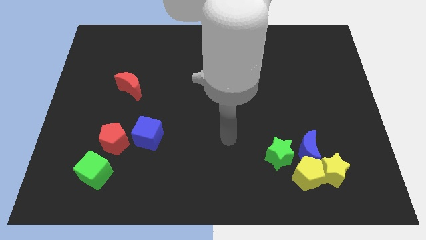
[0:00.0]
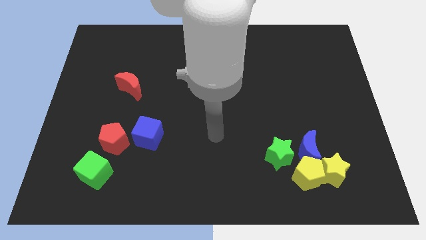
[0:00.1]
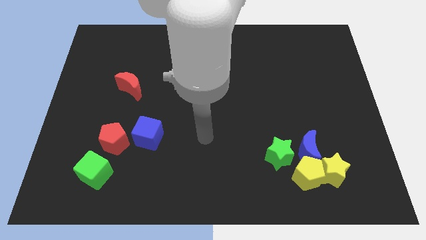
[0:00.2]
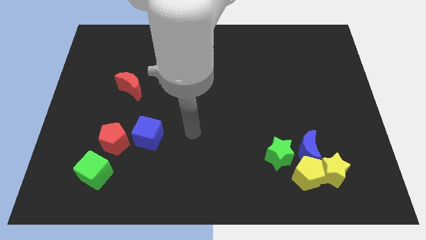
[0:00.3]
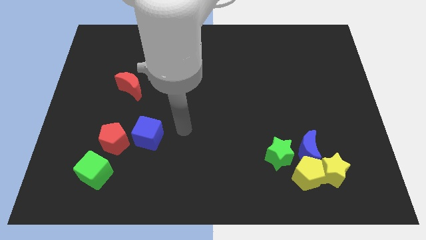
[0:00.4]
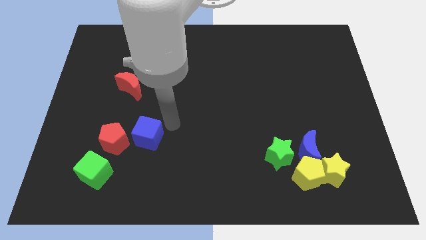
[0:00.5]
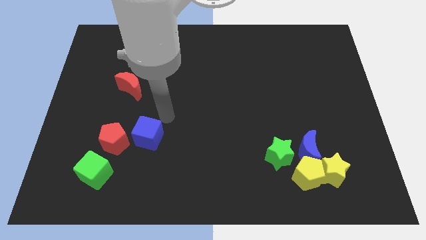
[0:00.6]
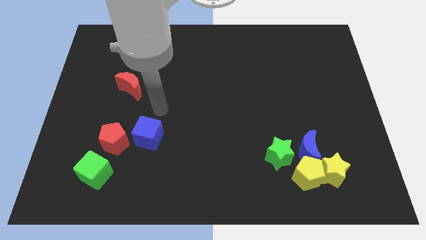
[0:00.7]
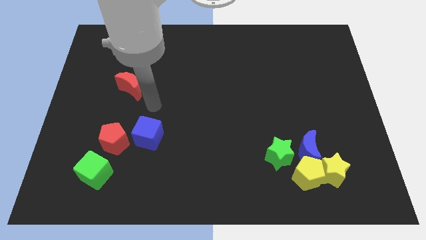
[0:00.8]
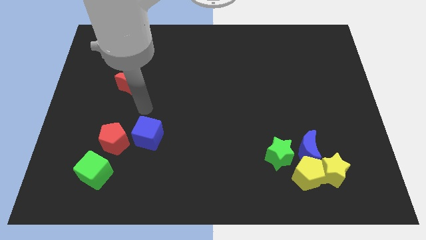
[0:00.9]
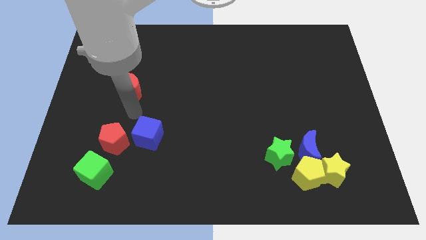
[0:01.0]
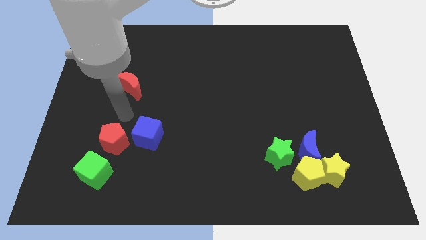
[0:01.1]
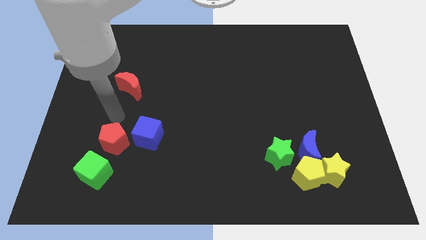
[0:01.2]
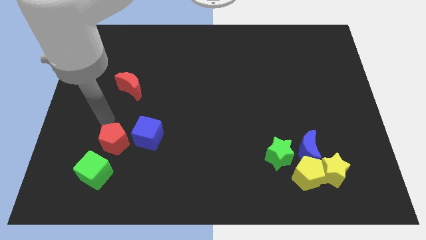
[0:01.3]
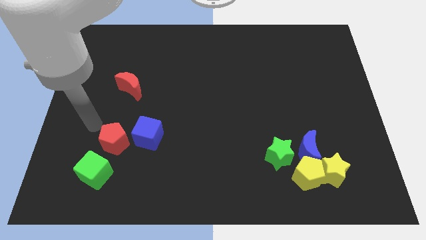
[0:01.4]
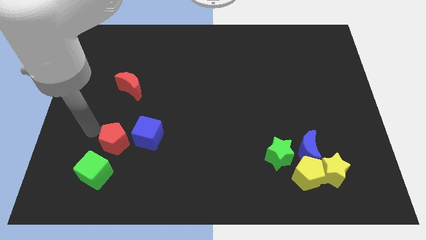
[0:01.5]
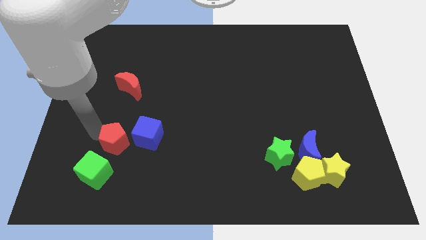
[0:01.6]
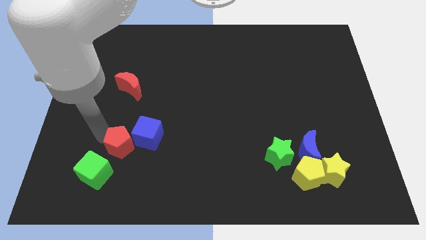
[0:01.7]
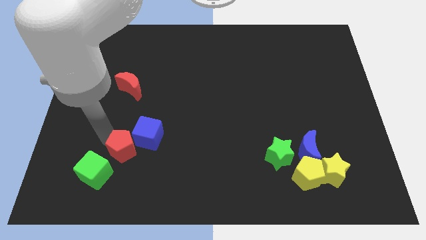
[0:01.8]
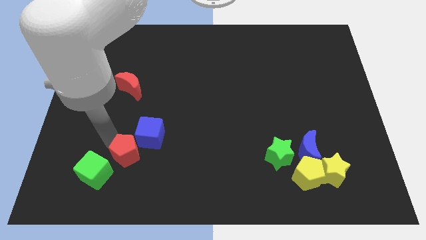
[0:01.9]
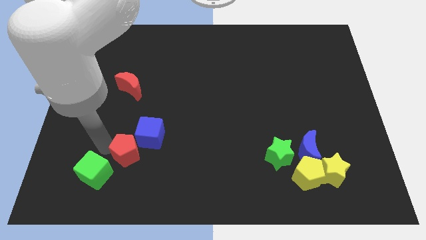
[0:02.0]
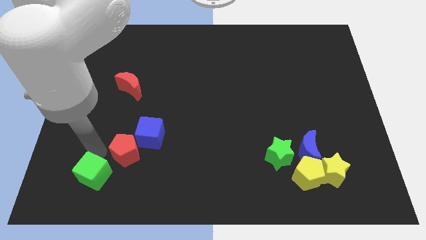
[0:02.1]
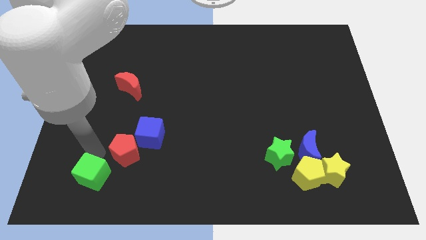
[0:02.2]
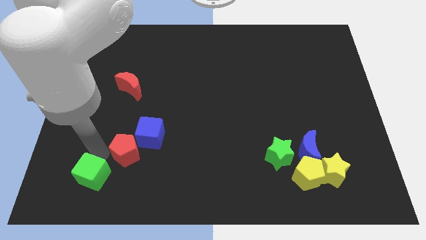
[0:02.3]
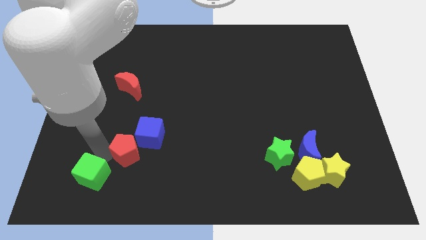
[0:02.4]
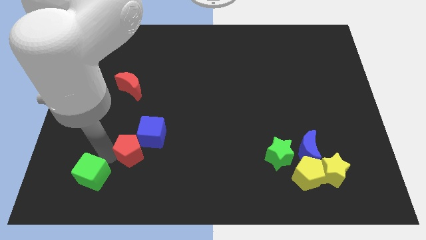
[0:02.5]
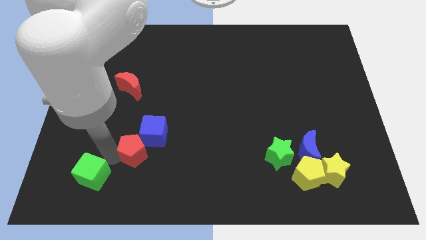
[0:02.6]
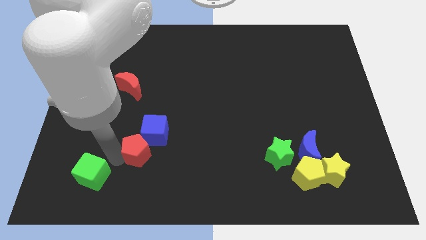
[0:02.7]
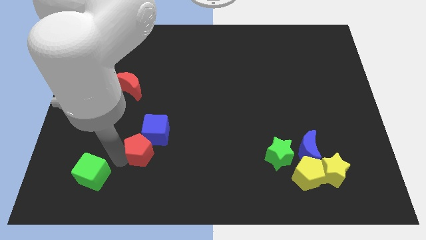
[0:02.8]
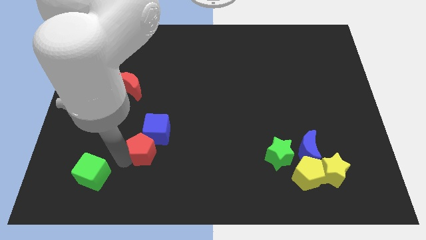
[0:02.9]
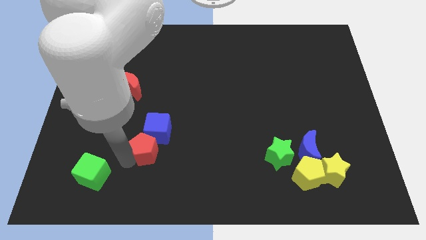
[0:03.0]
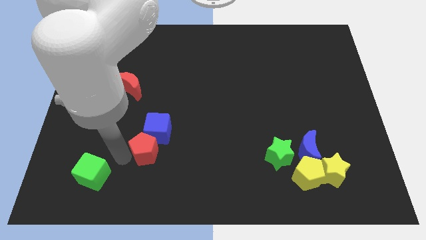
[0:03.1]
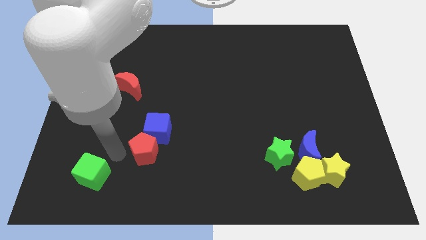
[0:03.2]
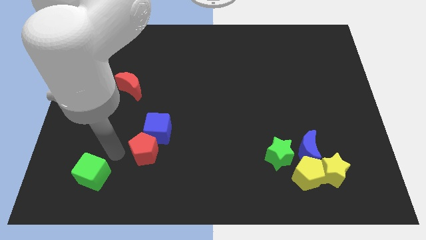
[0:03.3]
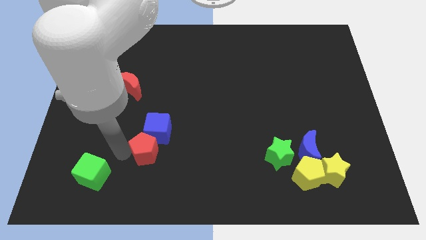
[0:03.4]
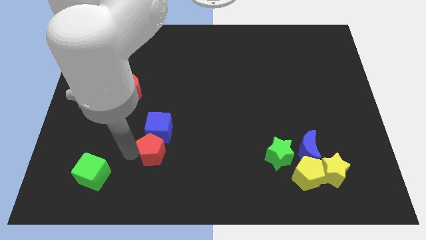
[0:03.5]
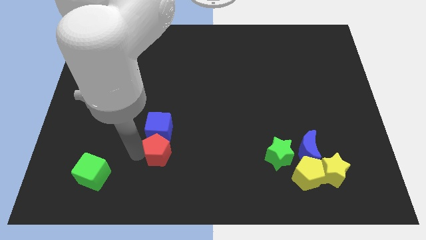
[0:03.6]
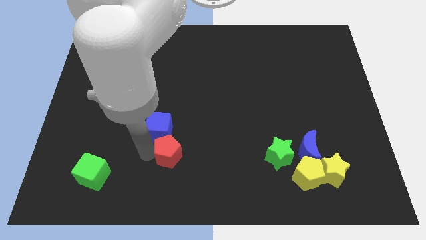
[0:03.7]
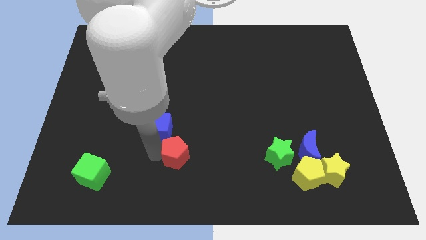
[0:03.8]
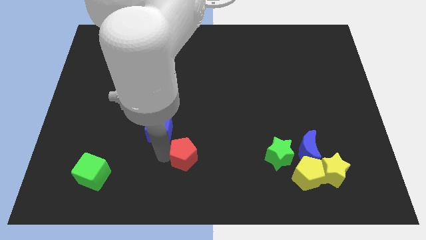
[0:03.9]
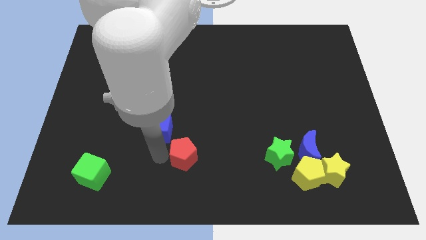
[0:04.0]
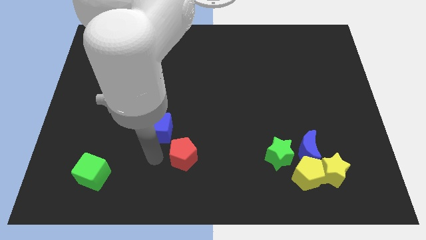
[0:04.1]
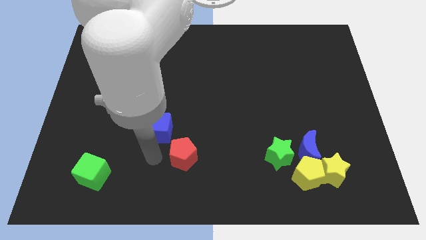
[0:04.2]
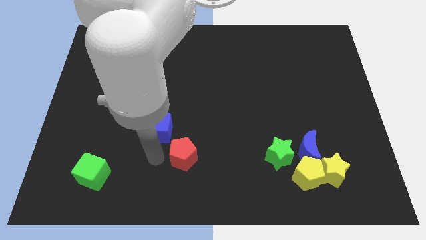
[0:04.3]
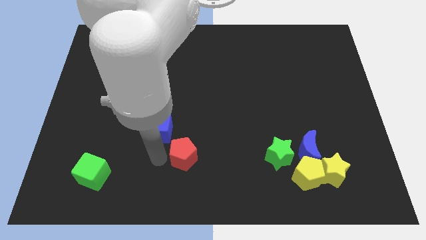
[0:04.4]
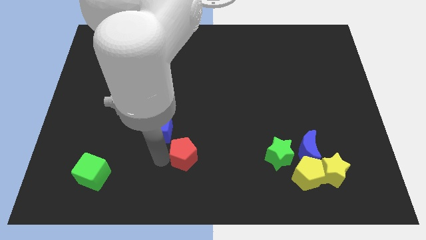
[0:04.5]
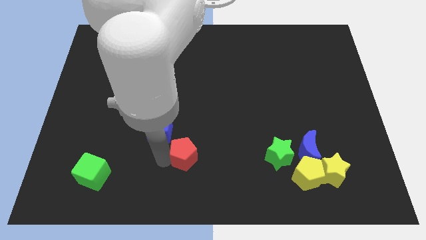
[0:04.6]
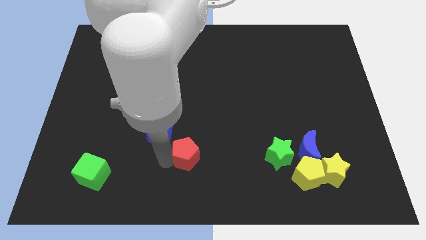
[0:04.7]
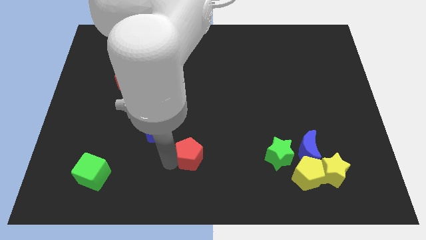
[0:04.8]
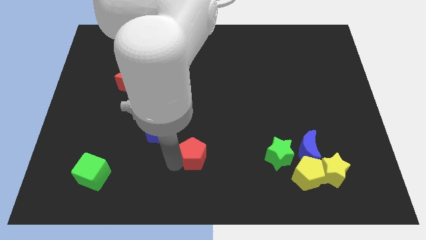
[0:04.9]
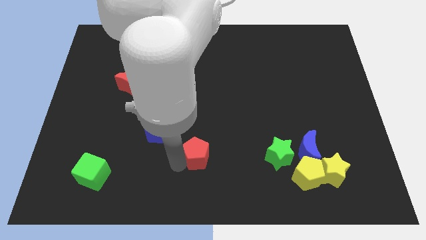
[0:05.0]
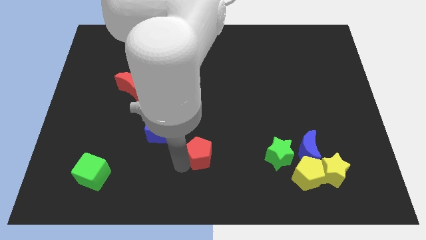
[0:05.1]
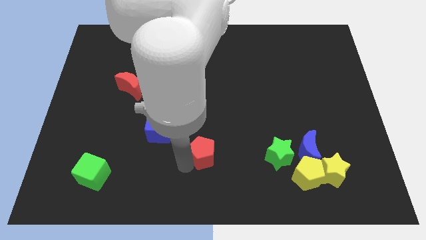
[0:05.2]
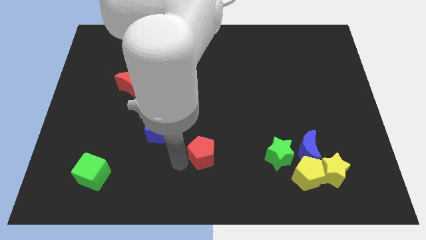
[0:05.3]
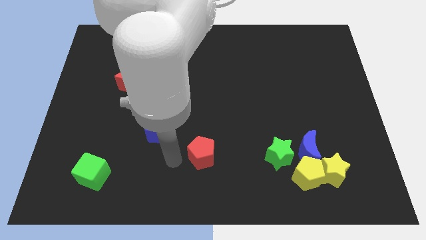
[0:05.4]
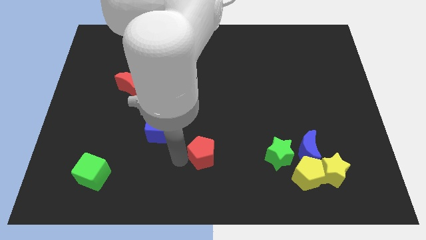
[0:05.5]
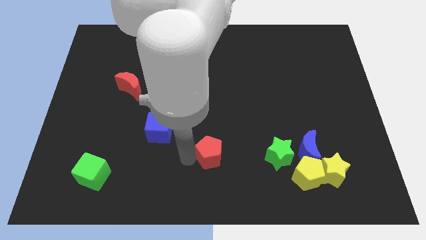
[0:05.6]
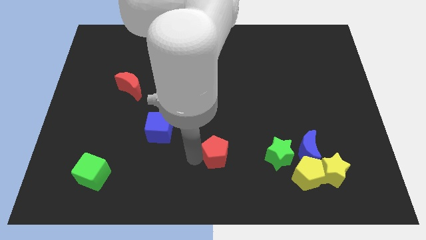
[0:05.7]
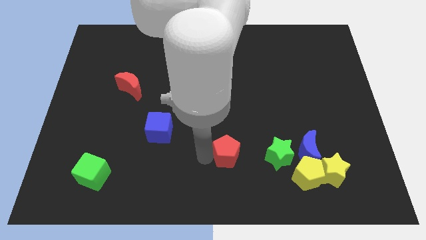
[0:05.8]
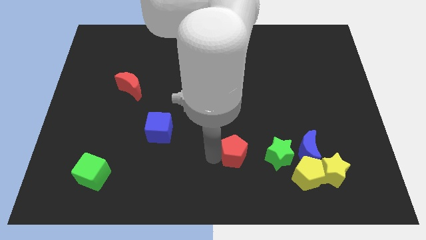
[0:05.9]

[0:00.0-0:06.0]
slide the red pentagon left of the blue moon

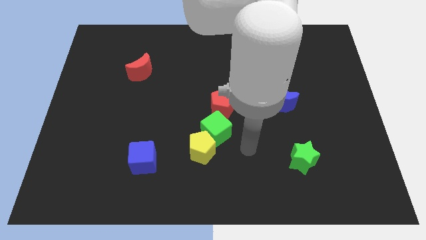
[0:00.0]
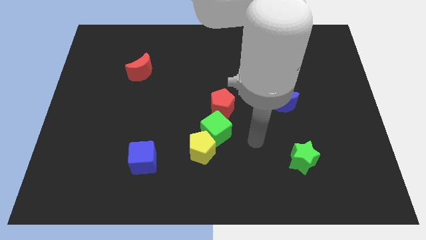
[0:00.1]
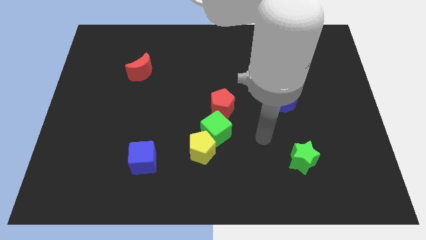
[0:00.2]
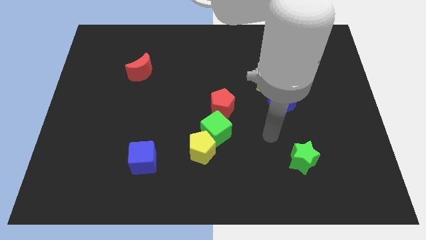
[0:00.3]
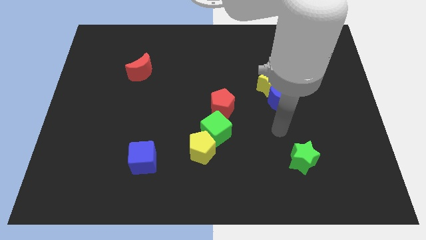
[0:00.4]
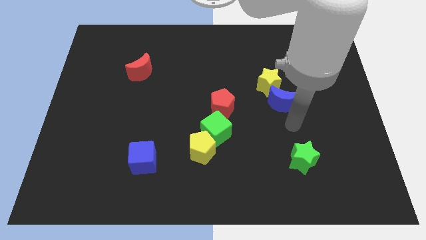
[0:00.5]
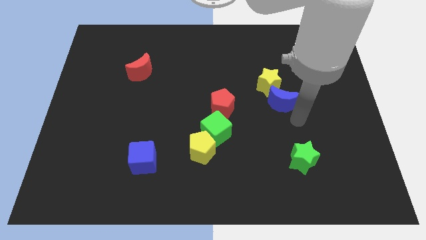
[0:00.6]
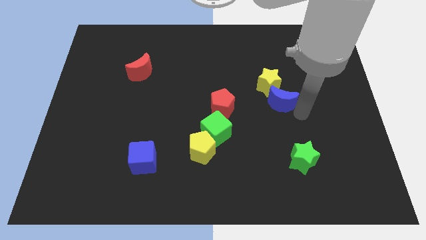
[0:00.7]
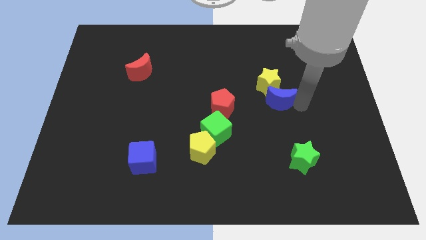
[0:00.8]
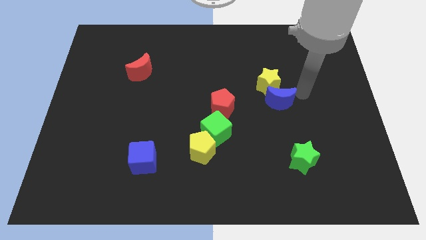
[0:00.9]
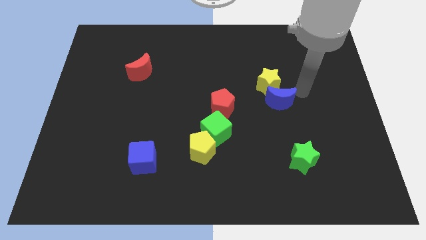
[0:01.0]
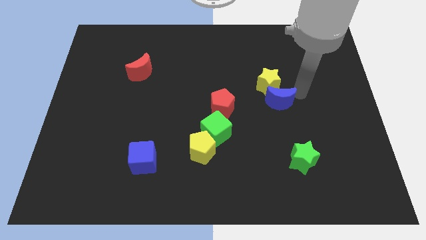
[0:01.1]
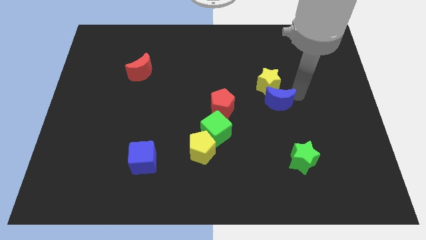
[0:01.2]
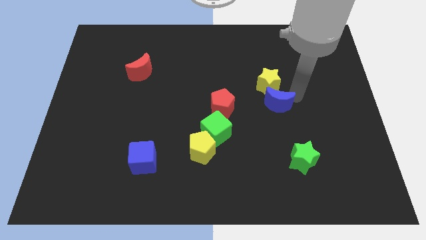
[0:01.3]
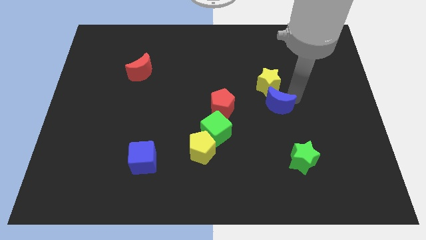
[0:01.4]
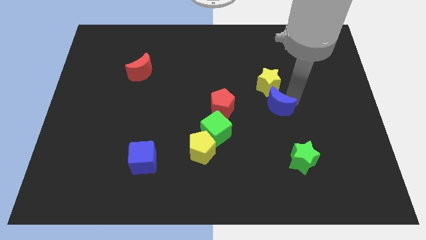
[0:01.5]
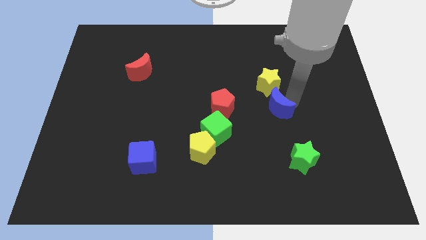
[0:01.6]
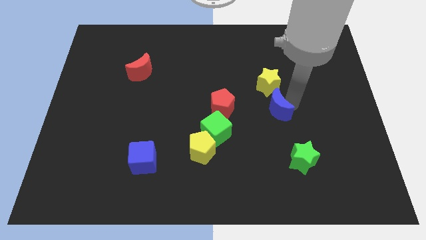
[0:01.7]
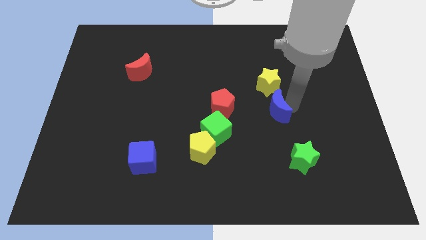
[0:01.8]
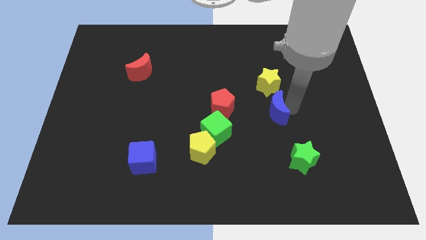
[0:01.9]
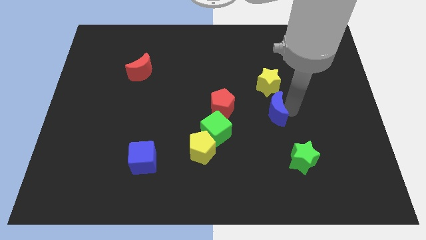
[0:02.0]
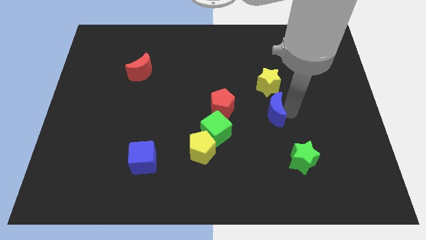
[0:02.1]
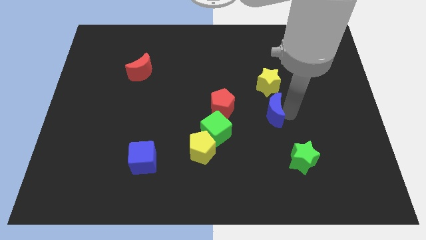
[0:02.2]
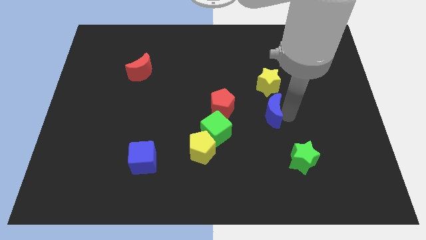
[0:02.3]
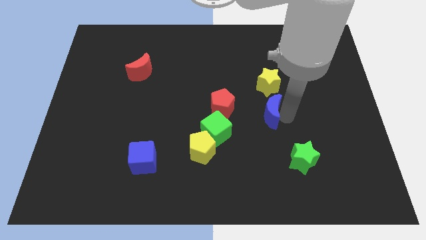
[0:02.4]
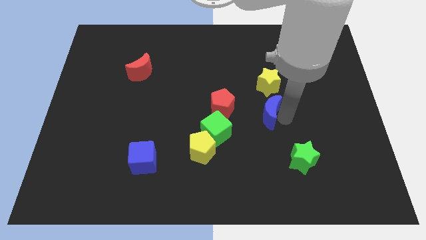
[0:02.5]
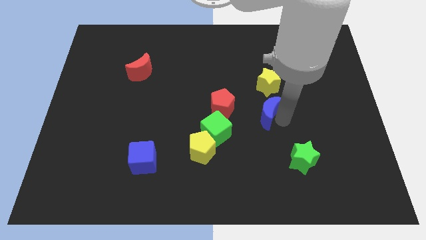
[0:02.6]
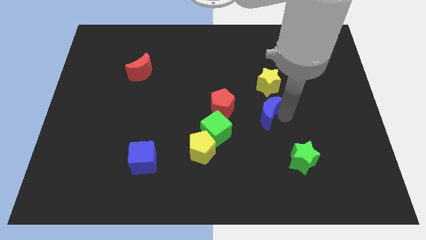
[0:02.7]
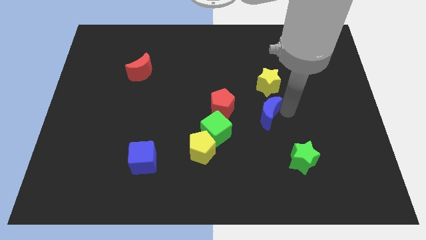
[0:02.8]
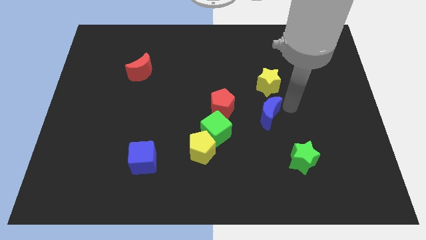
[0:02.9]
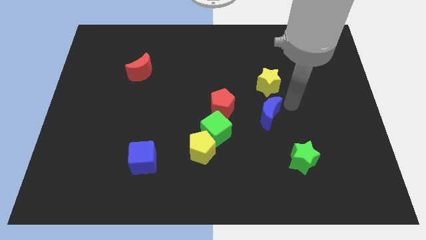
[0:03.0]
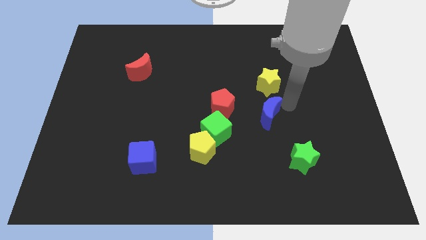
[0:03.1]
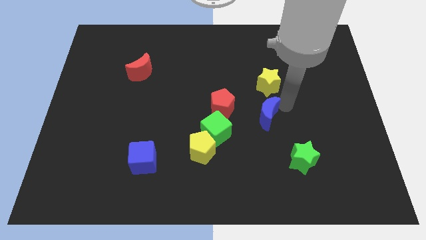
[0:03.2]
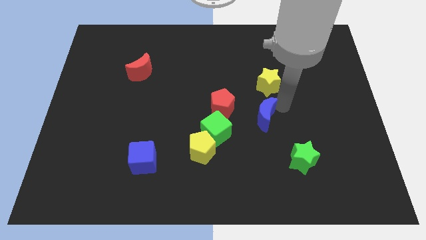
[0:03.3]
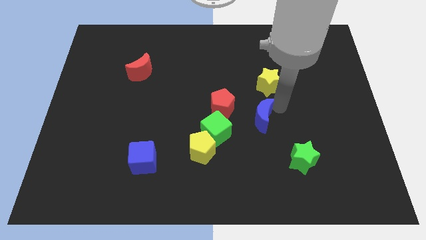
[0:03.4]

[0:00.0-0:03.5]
slide the blue moon to the bottom right side of the red pentagon
